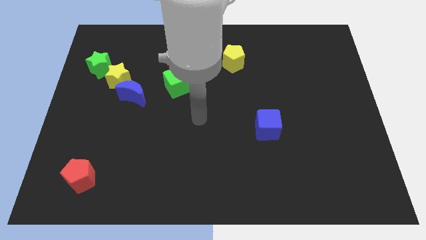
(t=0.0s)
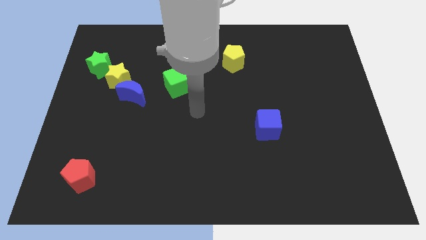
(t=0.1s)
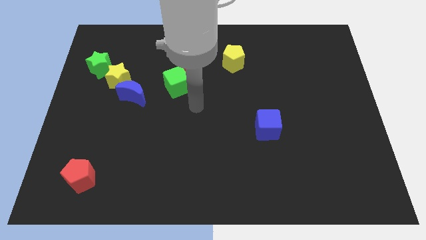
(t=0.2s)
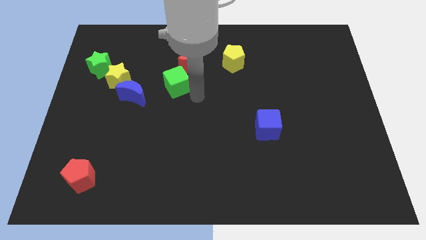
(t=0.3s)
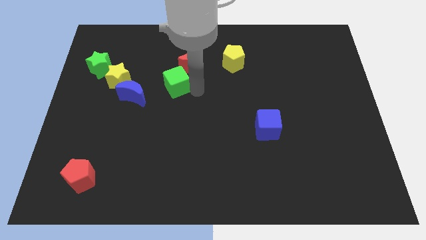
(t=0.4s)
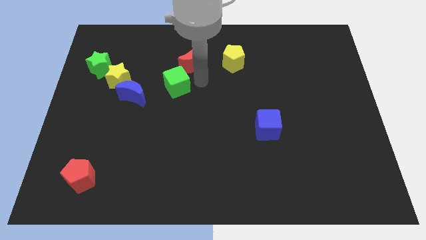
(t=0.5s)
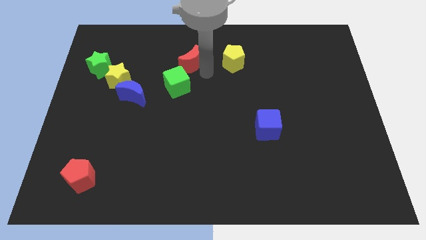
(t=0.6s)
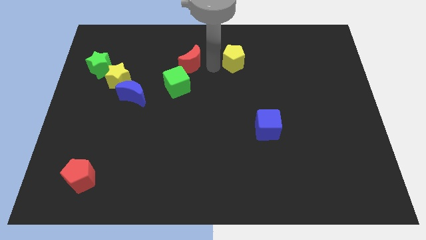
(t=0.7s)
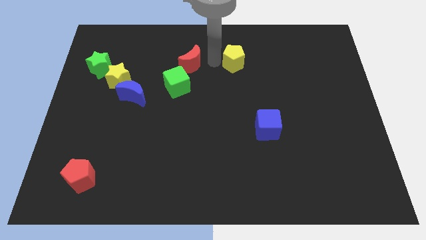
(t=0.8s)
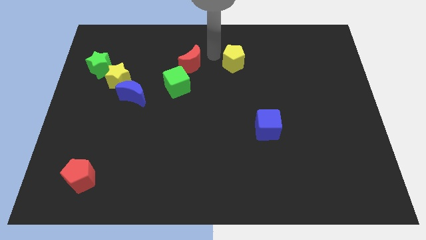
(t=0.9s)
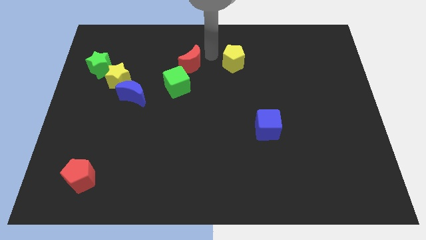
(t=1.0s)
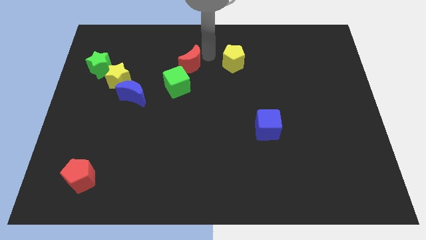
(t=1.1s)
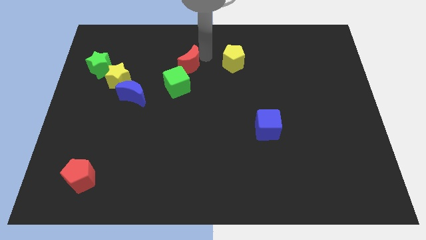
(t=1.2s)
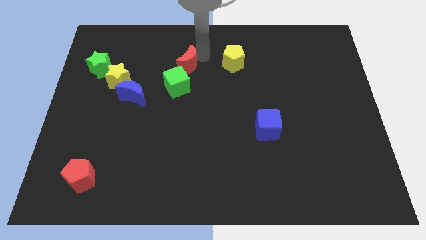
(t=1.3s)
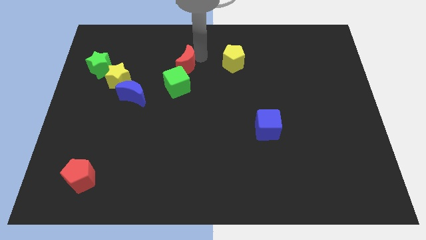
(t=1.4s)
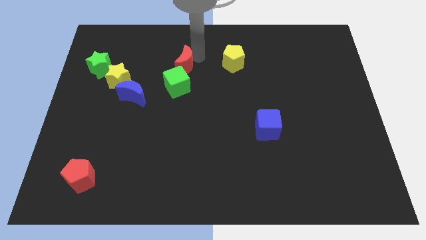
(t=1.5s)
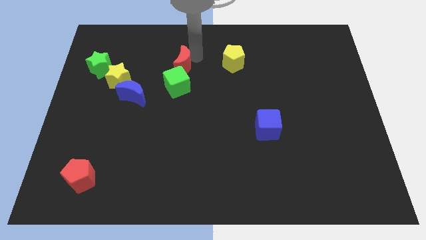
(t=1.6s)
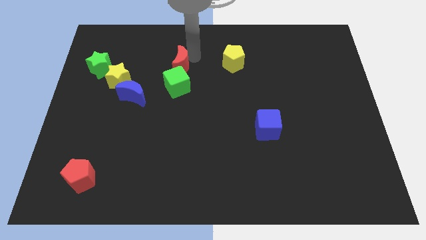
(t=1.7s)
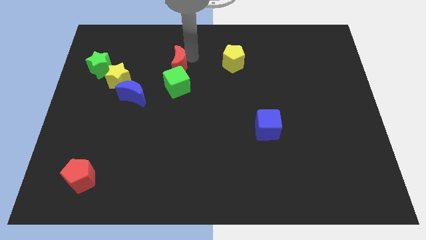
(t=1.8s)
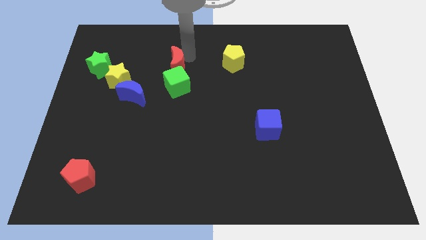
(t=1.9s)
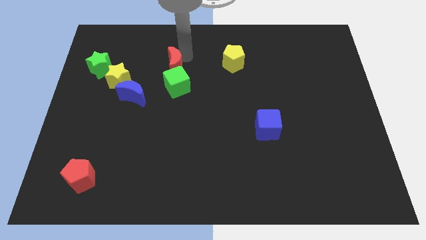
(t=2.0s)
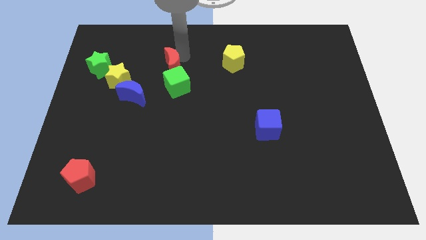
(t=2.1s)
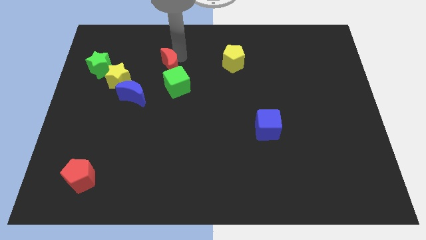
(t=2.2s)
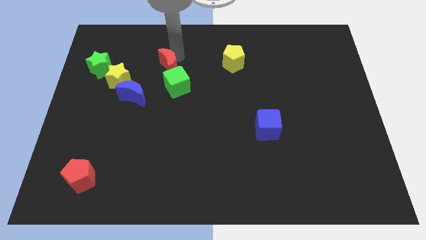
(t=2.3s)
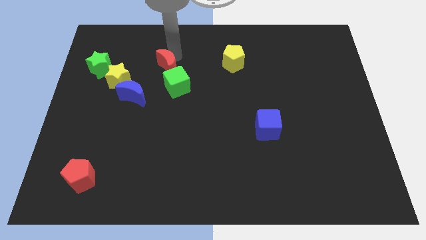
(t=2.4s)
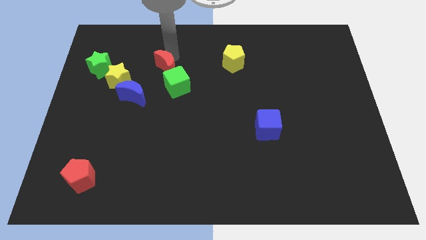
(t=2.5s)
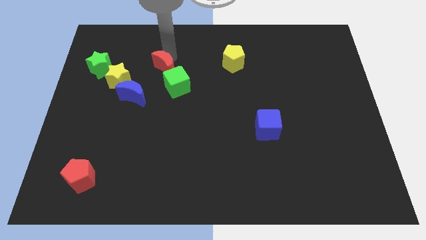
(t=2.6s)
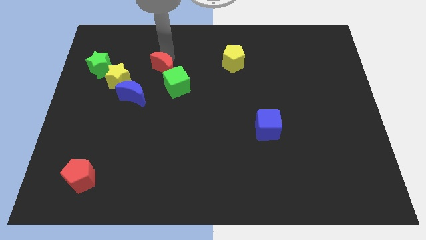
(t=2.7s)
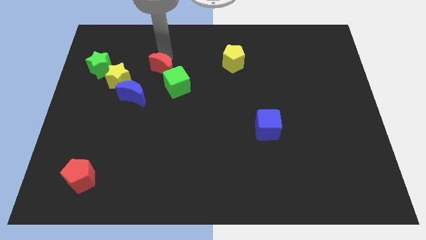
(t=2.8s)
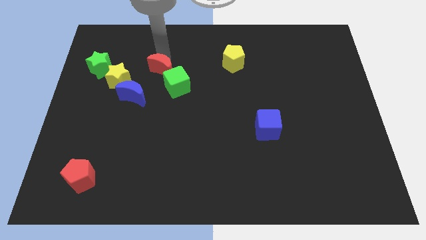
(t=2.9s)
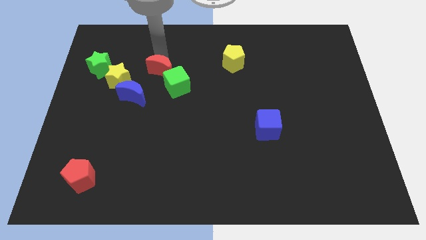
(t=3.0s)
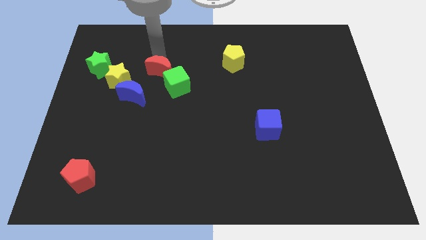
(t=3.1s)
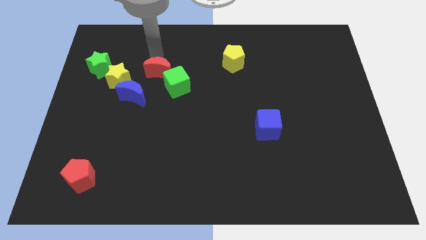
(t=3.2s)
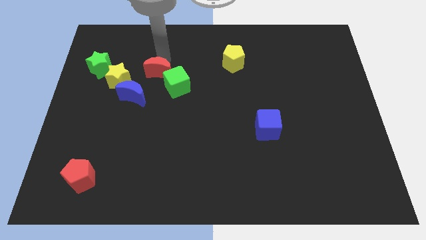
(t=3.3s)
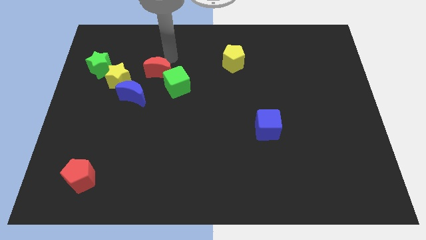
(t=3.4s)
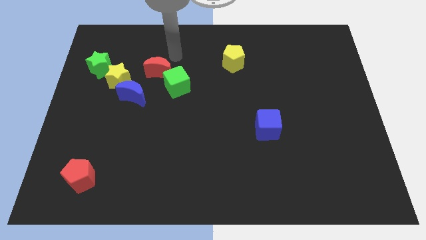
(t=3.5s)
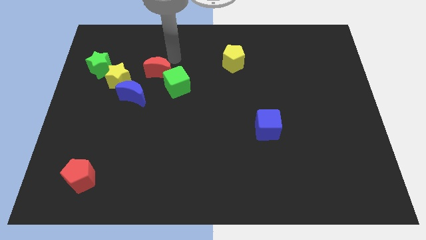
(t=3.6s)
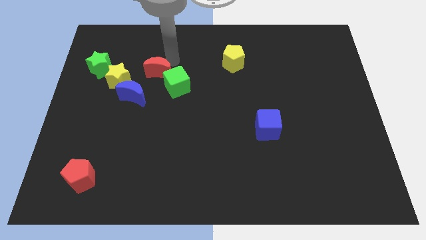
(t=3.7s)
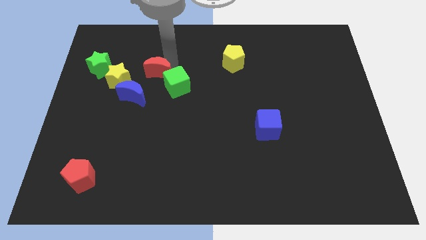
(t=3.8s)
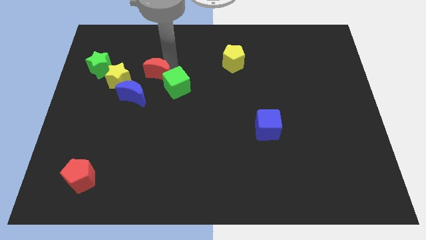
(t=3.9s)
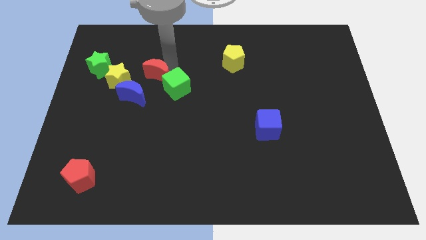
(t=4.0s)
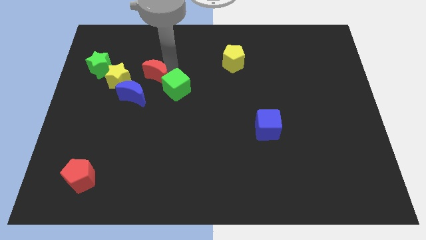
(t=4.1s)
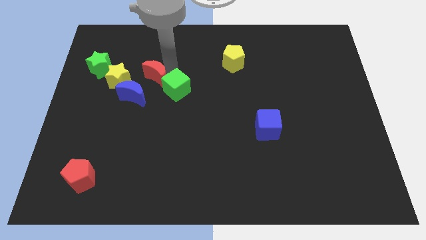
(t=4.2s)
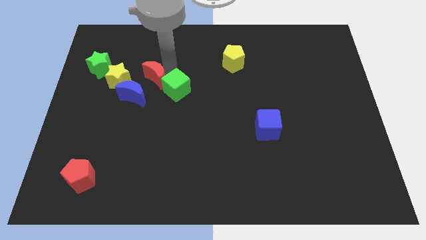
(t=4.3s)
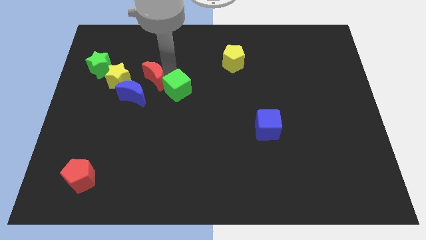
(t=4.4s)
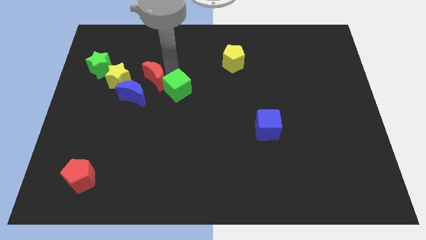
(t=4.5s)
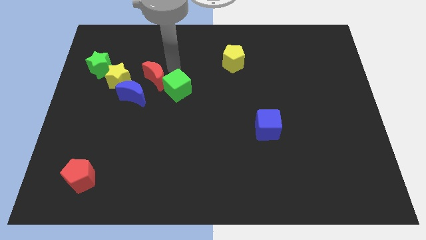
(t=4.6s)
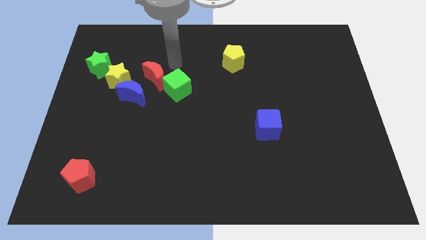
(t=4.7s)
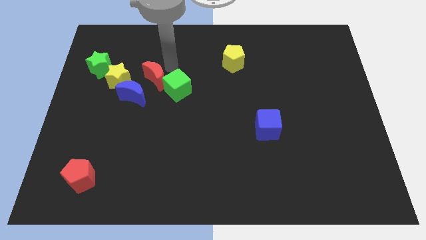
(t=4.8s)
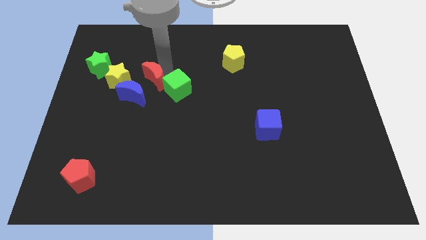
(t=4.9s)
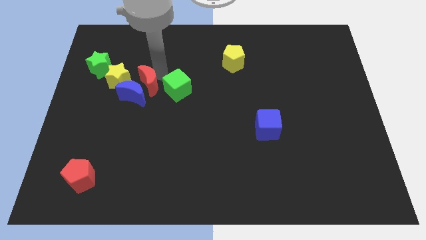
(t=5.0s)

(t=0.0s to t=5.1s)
move the red moon close to the blue moon

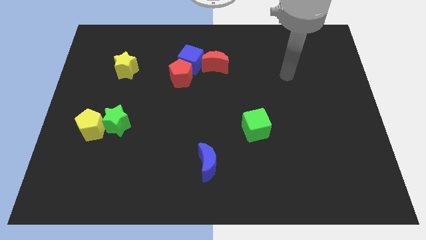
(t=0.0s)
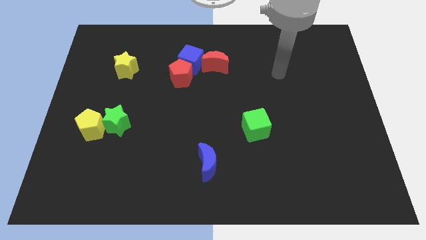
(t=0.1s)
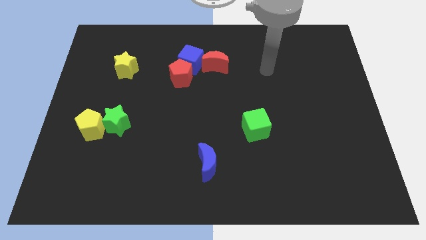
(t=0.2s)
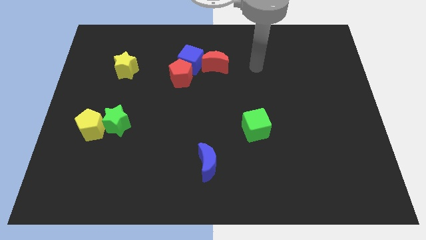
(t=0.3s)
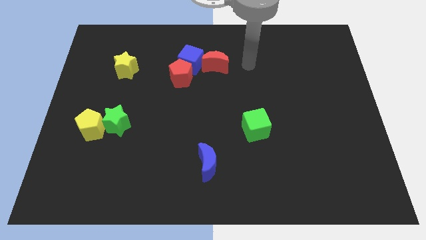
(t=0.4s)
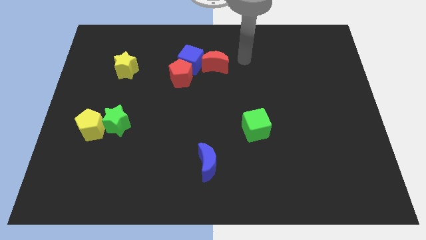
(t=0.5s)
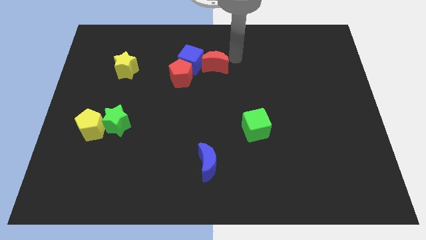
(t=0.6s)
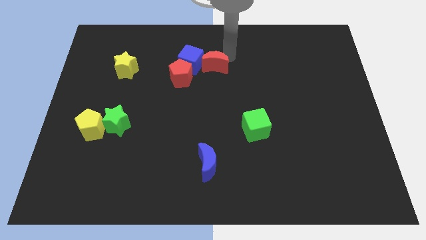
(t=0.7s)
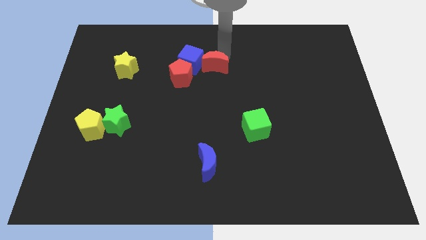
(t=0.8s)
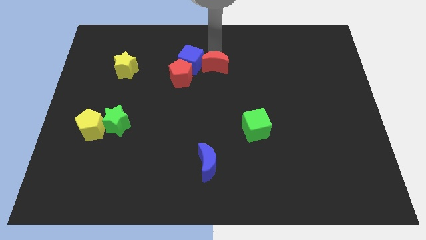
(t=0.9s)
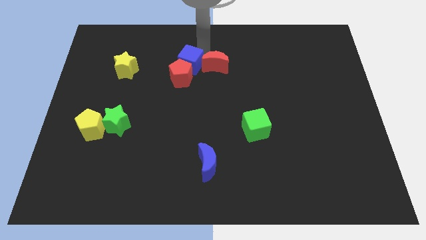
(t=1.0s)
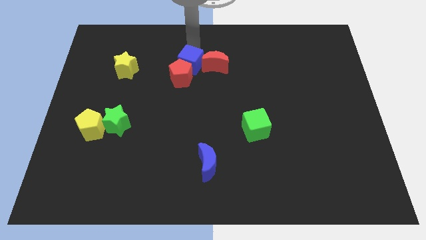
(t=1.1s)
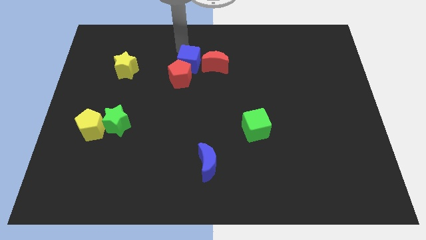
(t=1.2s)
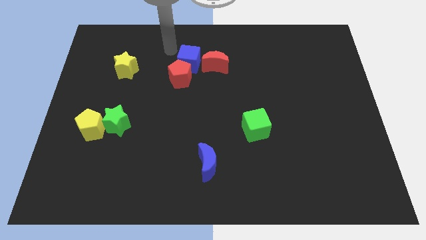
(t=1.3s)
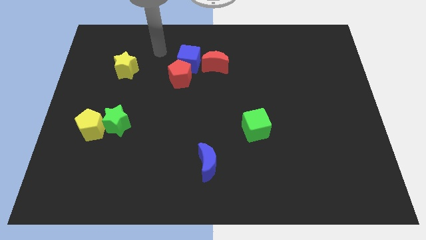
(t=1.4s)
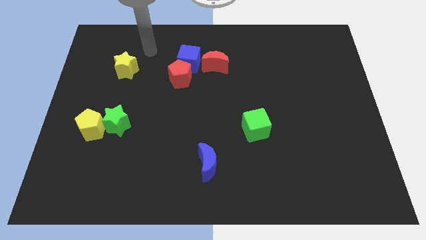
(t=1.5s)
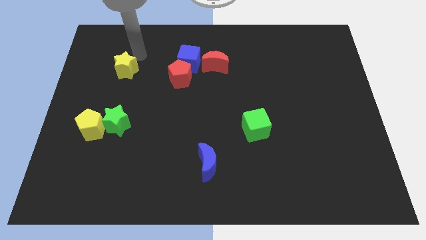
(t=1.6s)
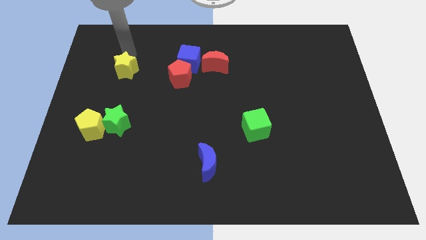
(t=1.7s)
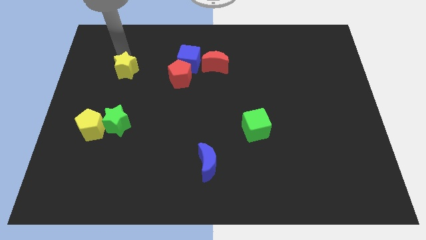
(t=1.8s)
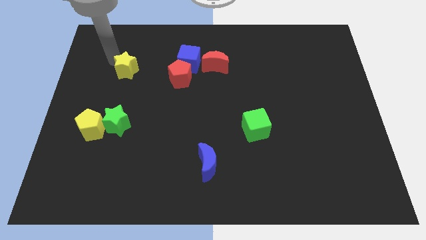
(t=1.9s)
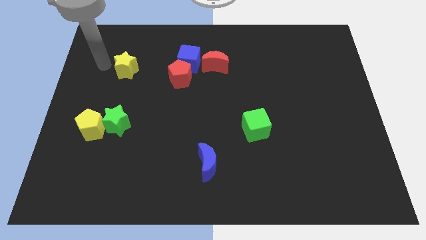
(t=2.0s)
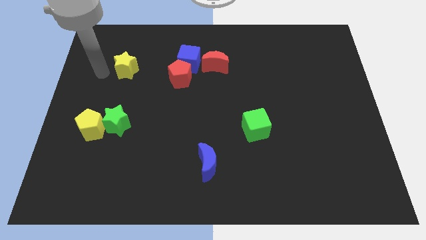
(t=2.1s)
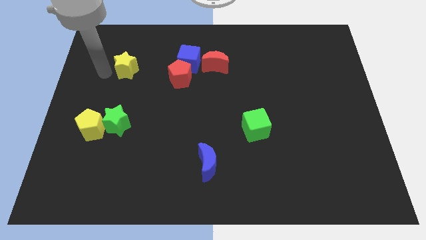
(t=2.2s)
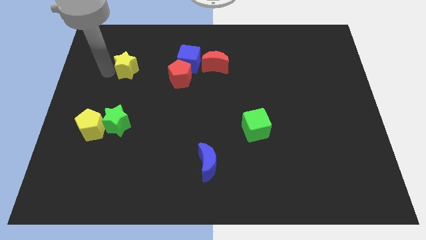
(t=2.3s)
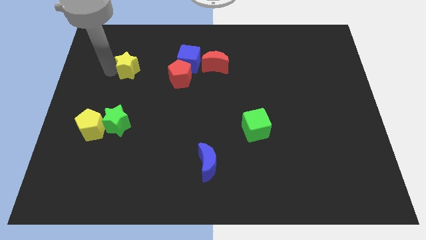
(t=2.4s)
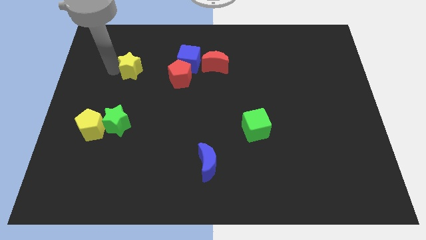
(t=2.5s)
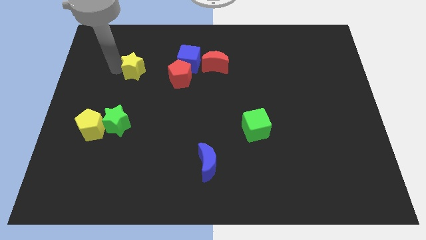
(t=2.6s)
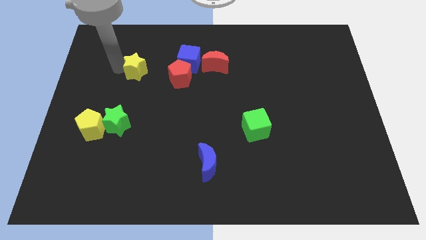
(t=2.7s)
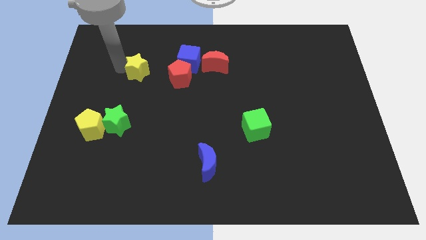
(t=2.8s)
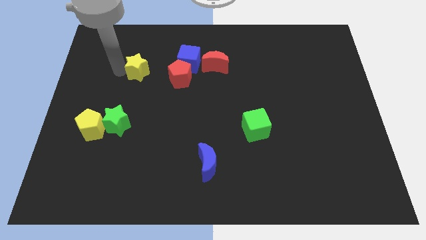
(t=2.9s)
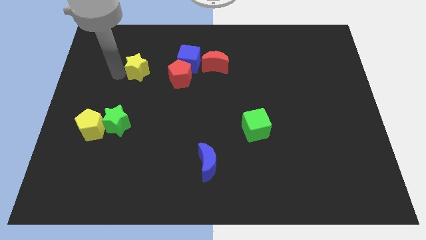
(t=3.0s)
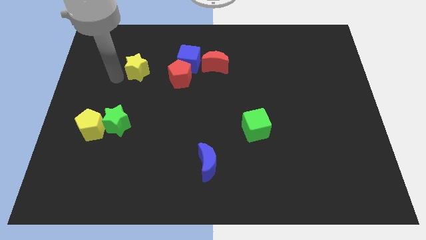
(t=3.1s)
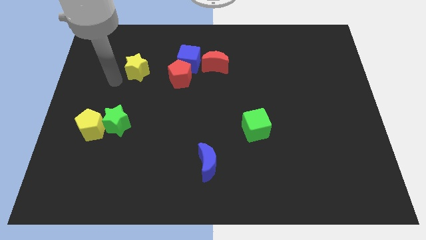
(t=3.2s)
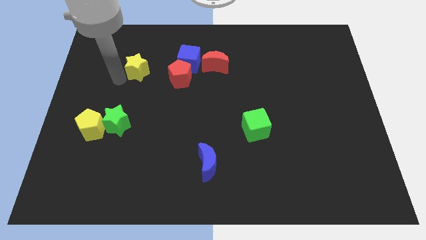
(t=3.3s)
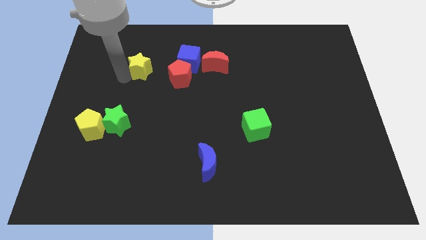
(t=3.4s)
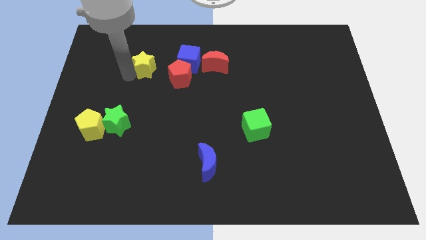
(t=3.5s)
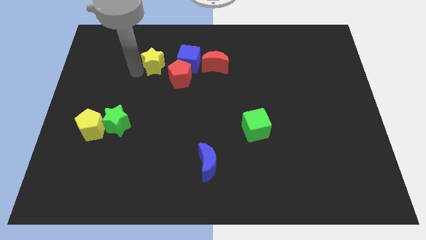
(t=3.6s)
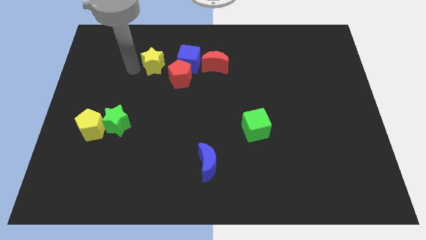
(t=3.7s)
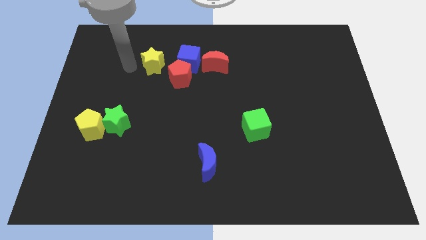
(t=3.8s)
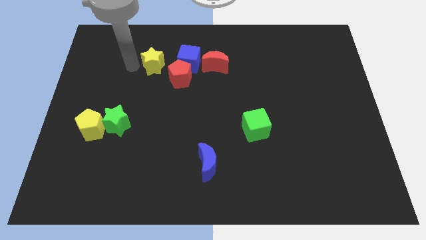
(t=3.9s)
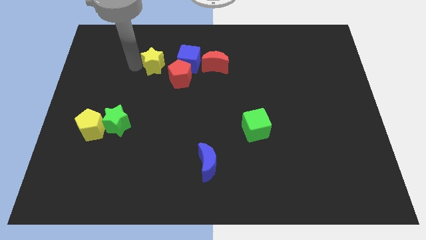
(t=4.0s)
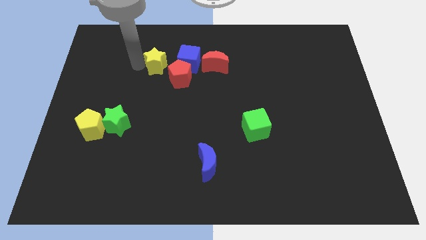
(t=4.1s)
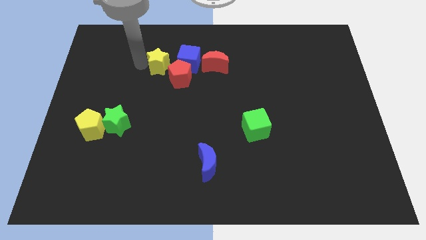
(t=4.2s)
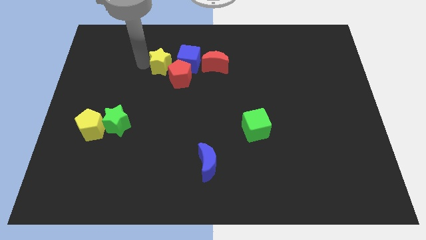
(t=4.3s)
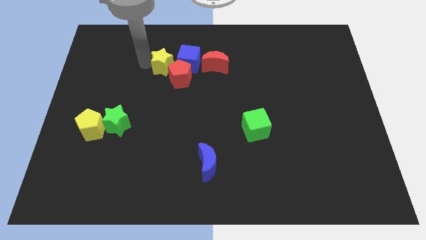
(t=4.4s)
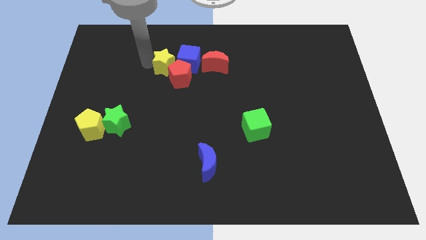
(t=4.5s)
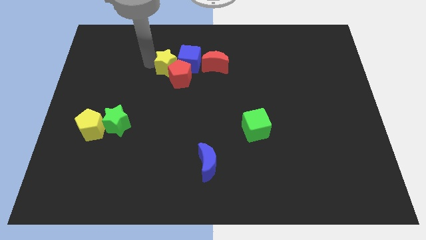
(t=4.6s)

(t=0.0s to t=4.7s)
move the yellow star towards the blue cube
